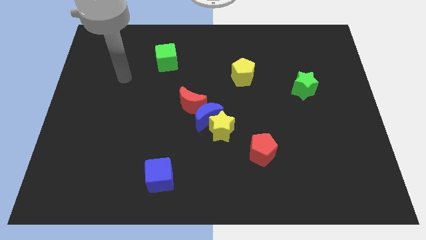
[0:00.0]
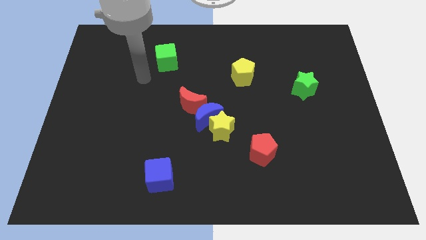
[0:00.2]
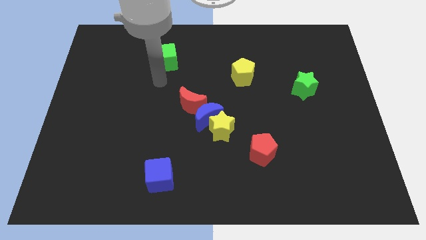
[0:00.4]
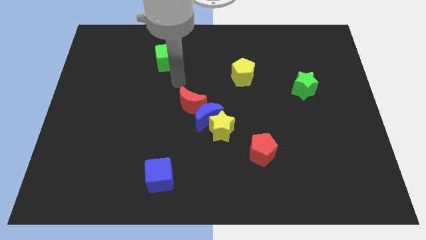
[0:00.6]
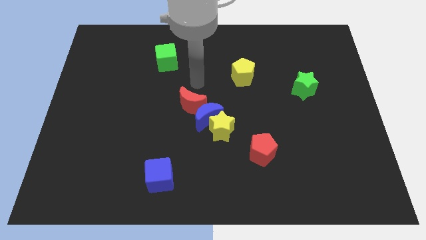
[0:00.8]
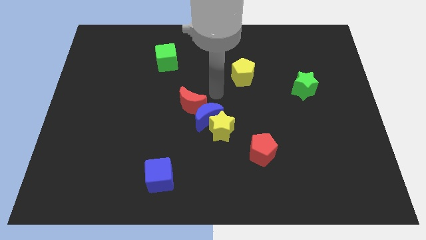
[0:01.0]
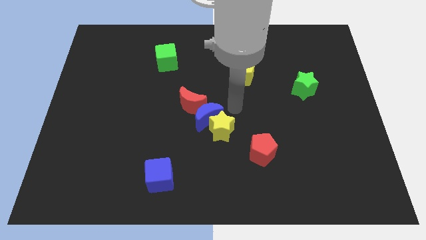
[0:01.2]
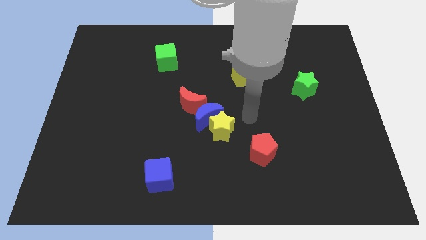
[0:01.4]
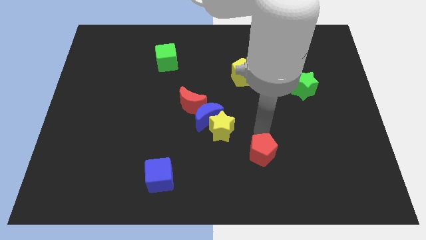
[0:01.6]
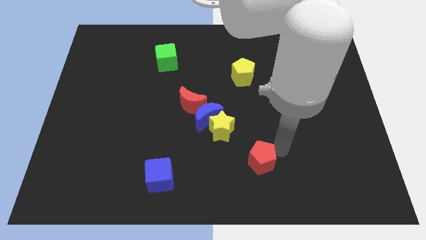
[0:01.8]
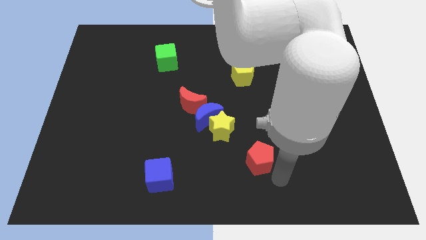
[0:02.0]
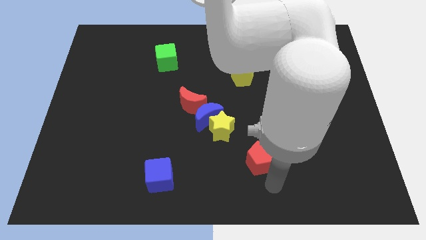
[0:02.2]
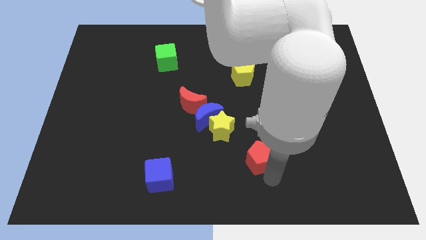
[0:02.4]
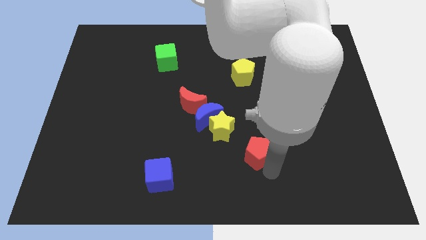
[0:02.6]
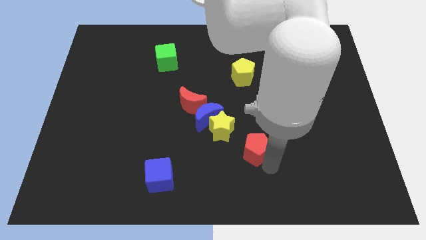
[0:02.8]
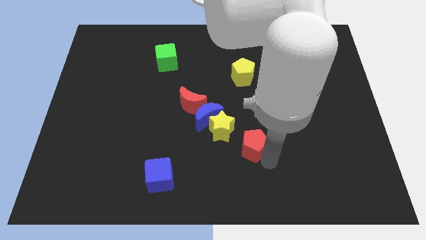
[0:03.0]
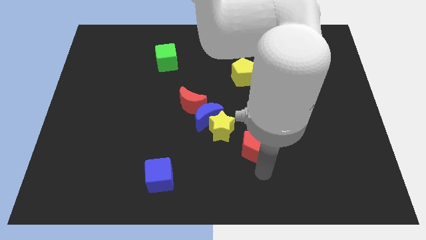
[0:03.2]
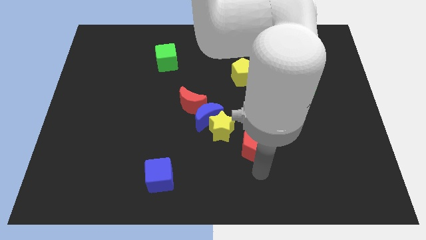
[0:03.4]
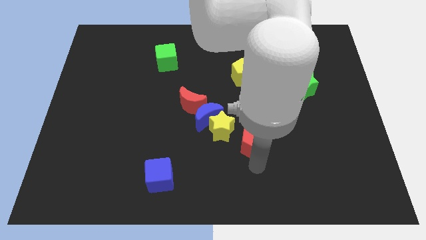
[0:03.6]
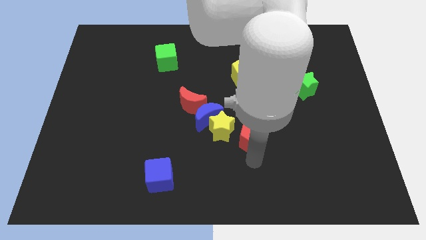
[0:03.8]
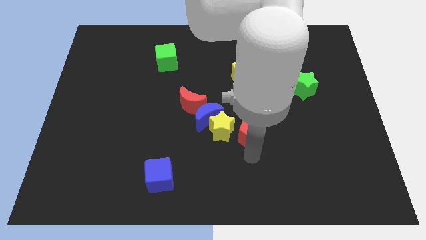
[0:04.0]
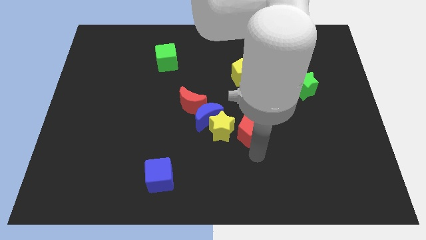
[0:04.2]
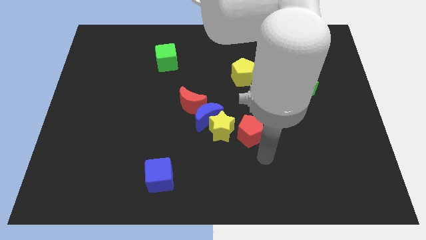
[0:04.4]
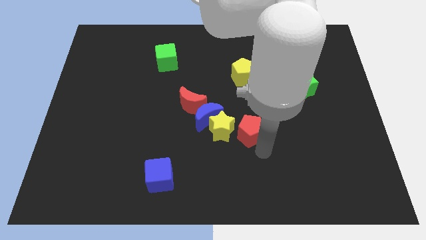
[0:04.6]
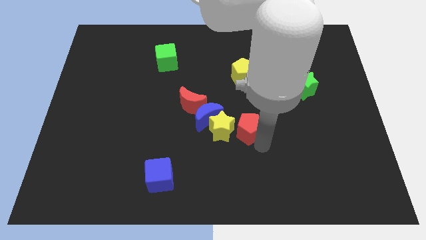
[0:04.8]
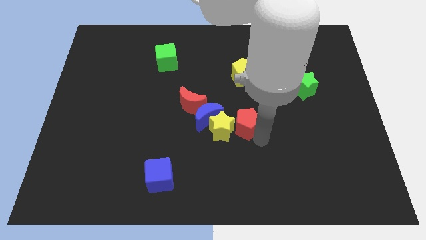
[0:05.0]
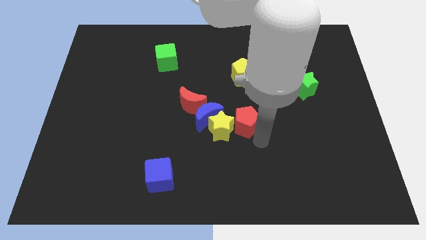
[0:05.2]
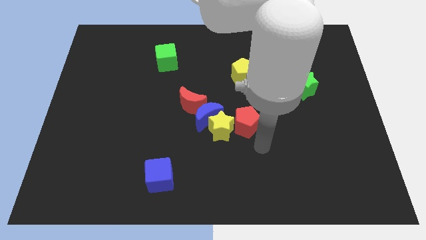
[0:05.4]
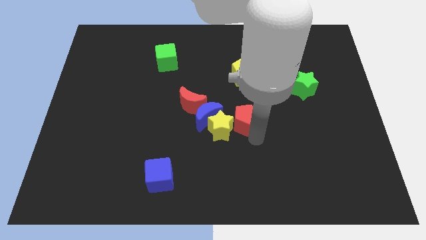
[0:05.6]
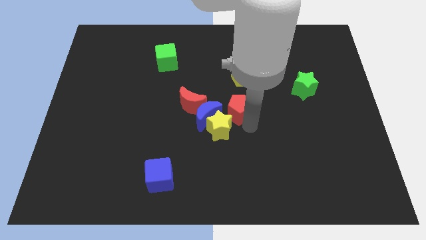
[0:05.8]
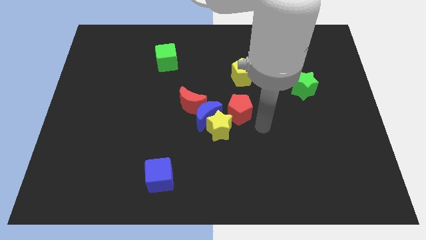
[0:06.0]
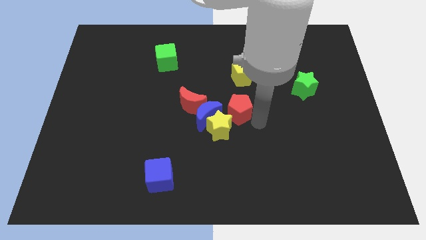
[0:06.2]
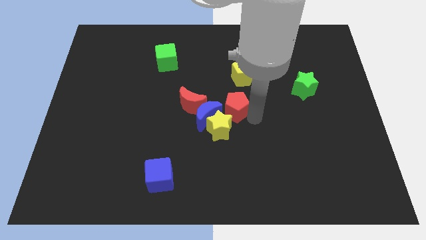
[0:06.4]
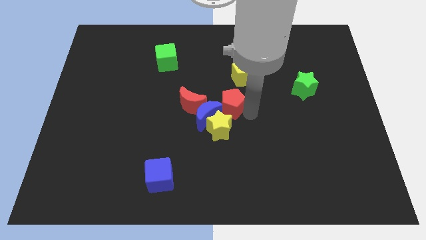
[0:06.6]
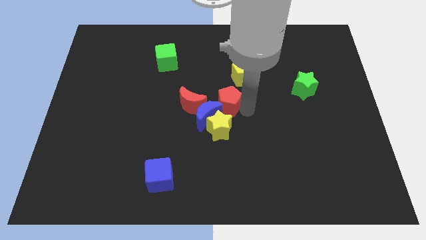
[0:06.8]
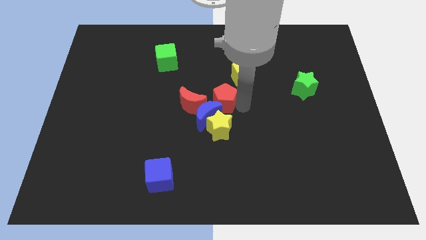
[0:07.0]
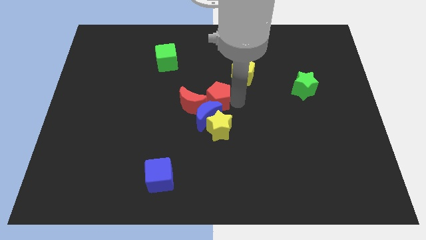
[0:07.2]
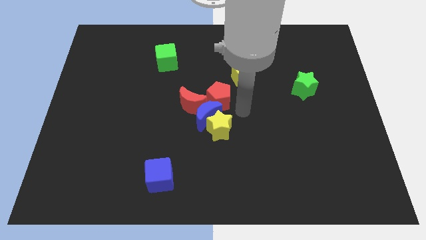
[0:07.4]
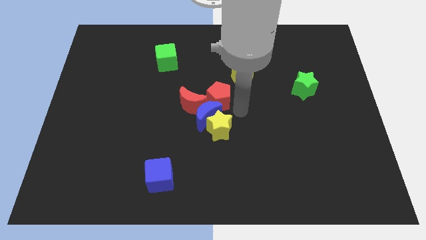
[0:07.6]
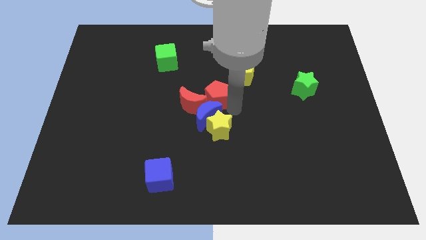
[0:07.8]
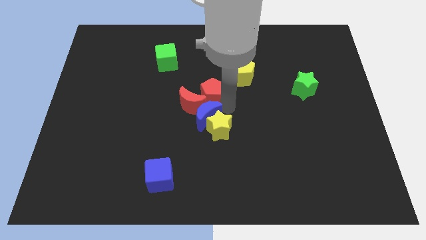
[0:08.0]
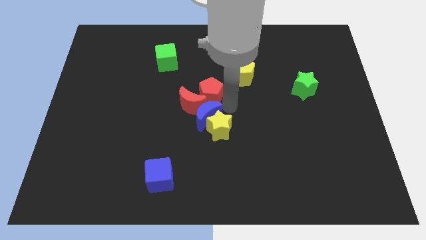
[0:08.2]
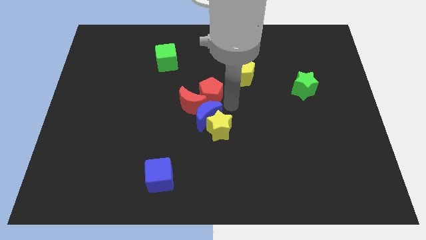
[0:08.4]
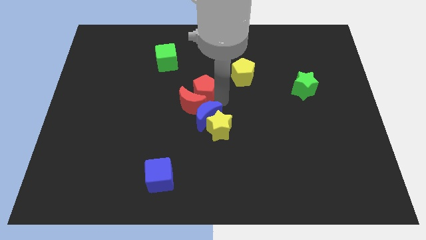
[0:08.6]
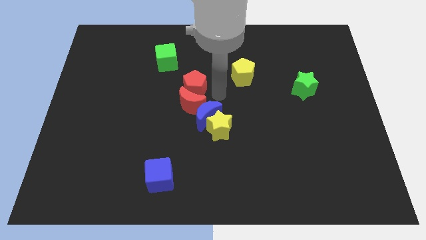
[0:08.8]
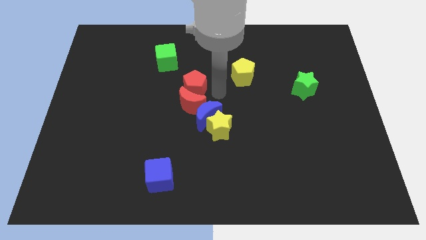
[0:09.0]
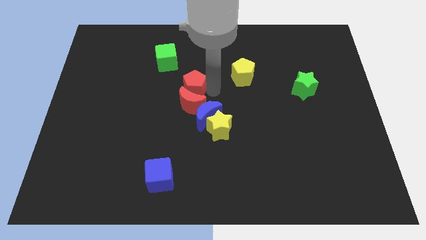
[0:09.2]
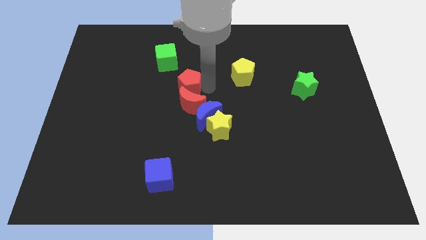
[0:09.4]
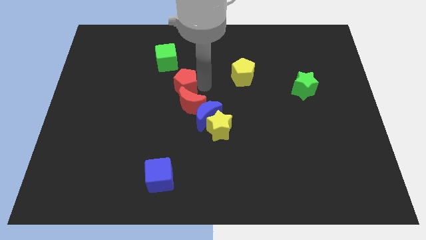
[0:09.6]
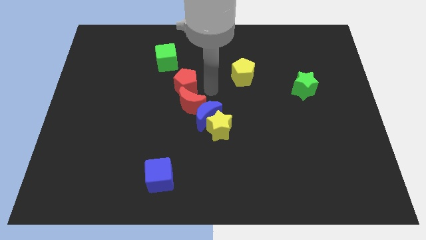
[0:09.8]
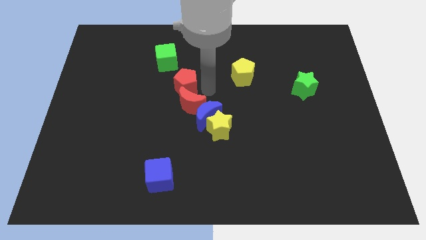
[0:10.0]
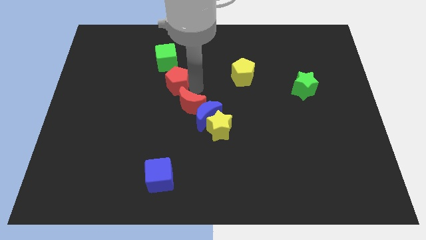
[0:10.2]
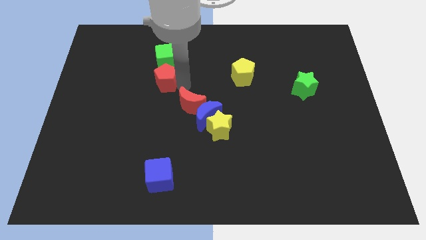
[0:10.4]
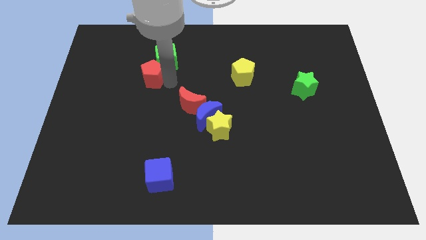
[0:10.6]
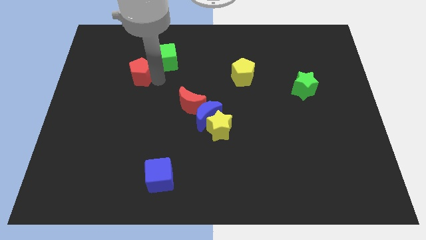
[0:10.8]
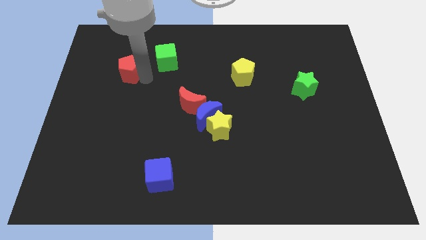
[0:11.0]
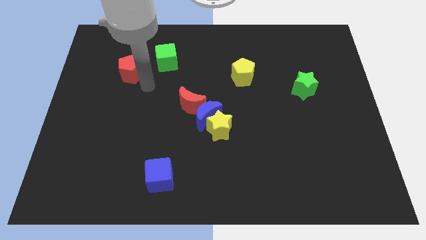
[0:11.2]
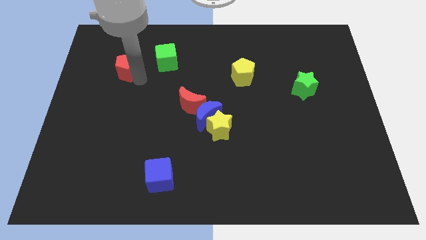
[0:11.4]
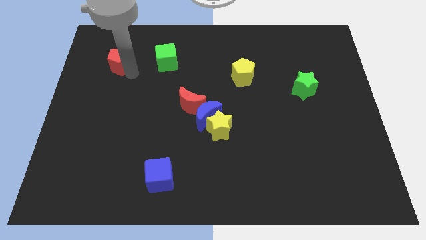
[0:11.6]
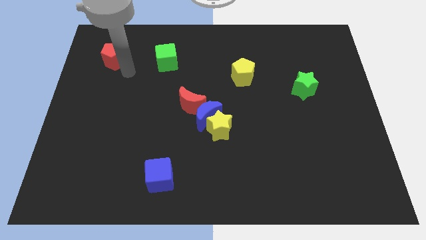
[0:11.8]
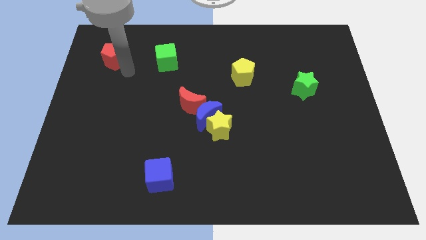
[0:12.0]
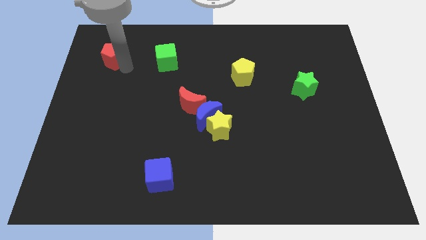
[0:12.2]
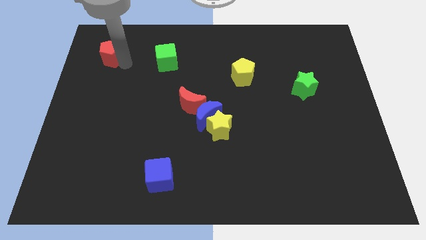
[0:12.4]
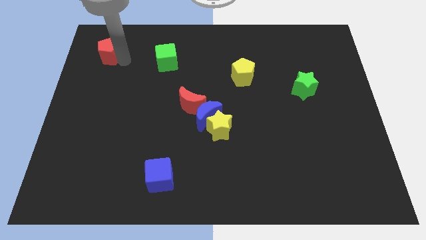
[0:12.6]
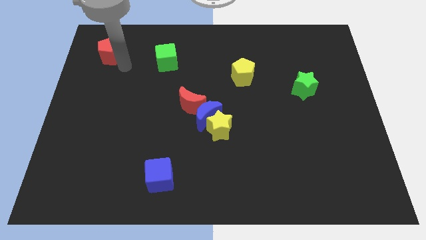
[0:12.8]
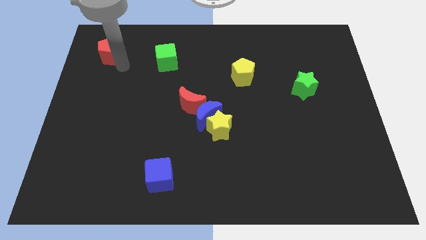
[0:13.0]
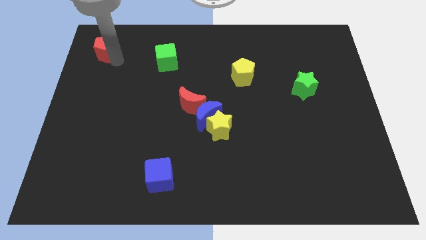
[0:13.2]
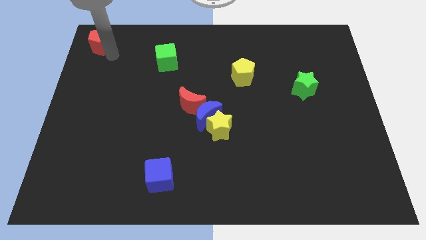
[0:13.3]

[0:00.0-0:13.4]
push the red pentagon to the upper left corner
